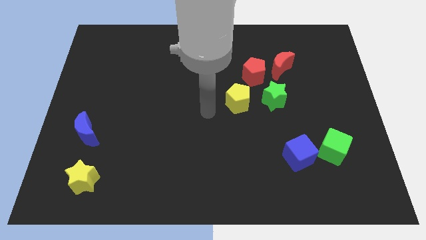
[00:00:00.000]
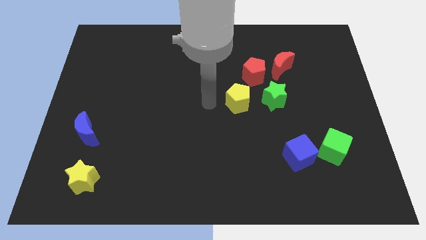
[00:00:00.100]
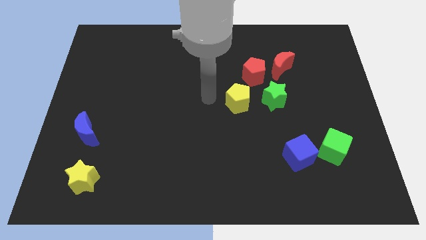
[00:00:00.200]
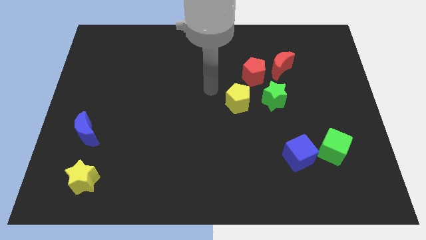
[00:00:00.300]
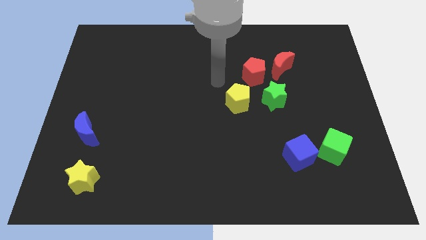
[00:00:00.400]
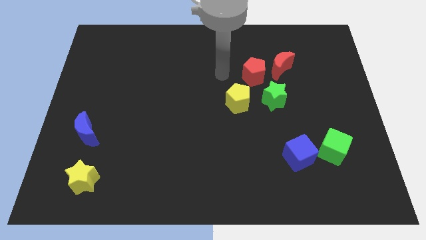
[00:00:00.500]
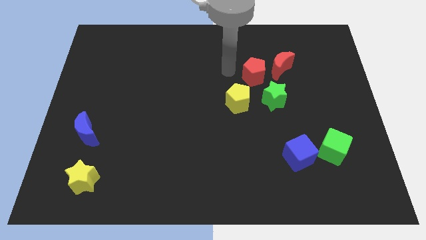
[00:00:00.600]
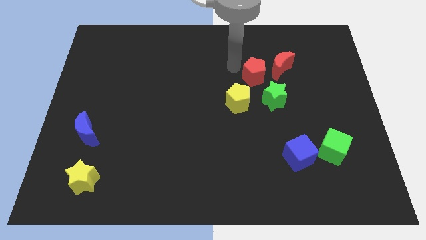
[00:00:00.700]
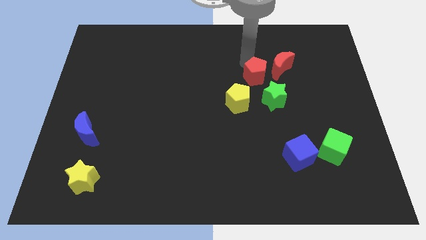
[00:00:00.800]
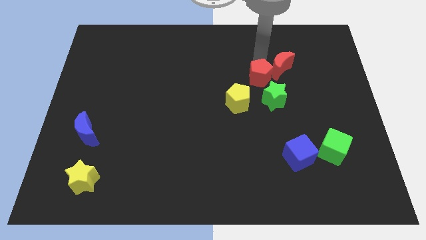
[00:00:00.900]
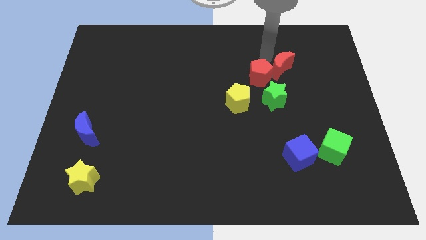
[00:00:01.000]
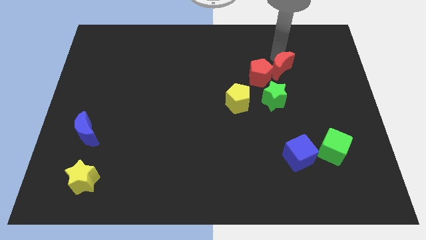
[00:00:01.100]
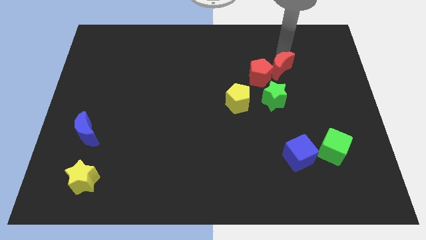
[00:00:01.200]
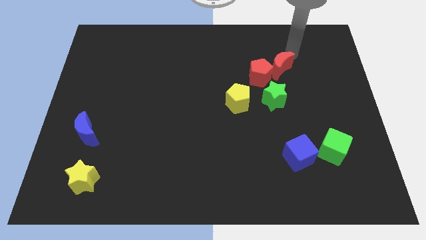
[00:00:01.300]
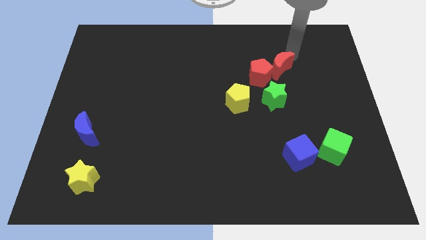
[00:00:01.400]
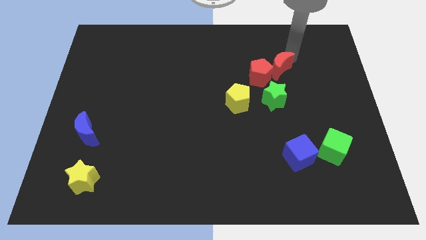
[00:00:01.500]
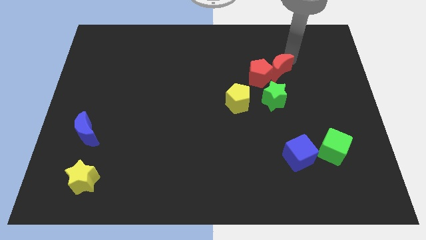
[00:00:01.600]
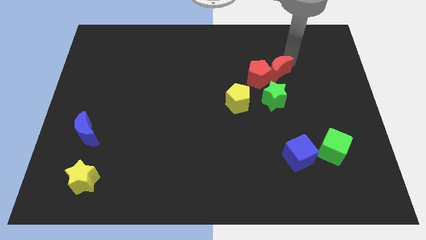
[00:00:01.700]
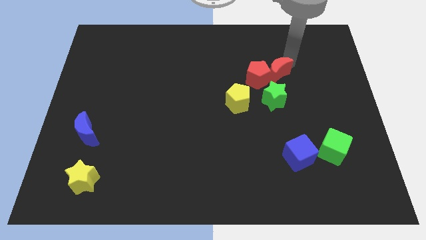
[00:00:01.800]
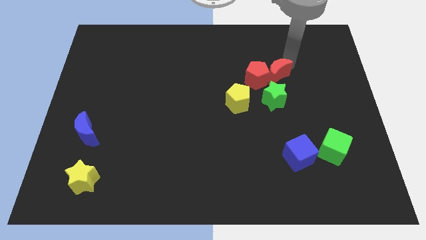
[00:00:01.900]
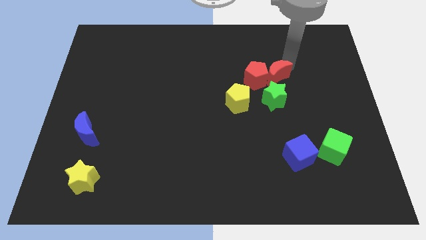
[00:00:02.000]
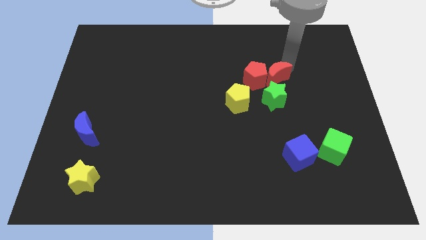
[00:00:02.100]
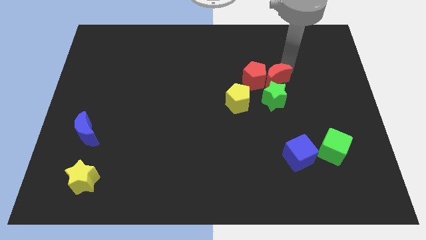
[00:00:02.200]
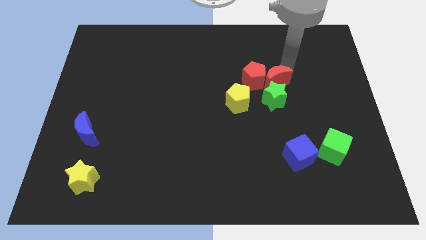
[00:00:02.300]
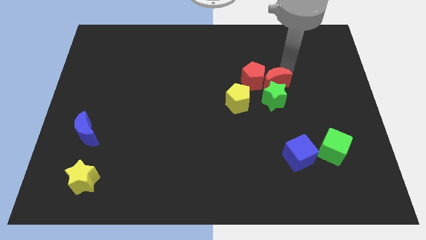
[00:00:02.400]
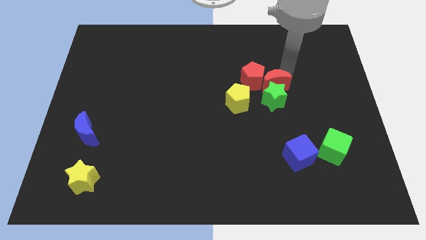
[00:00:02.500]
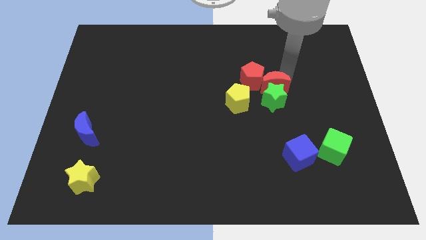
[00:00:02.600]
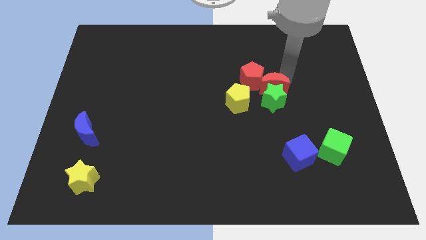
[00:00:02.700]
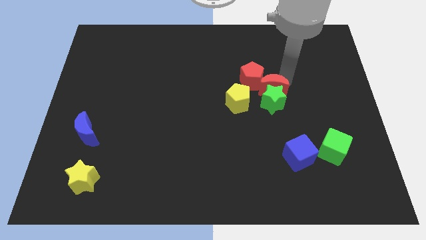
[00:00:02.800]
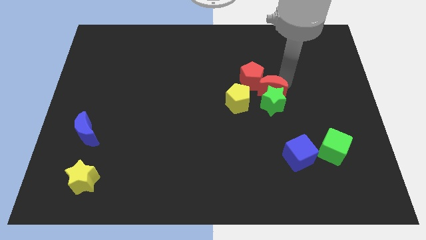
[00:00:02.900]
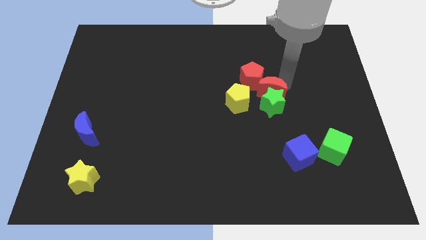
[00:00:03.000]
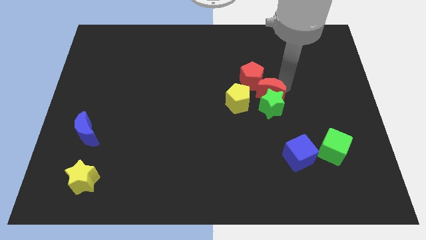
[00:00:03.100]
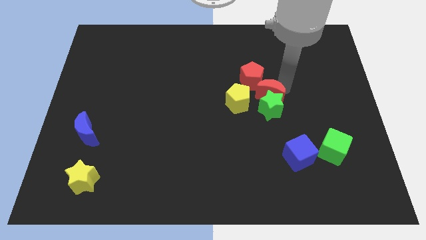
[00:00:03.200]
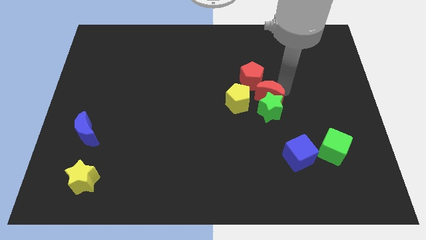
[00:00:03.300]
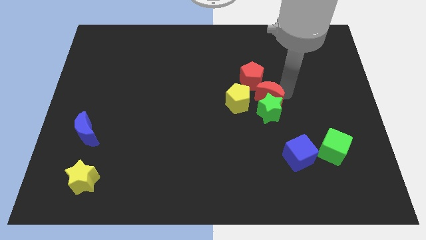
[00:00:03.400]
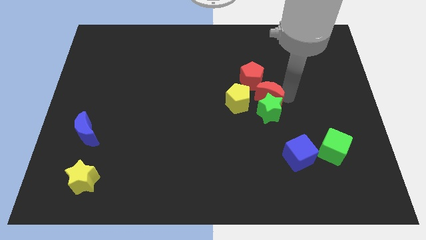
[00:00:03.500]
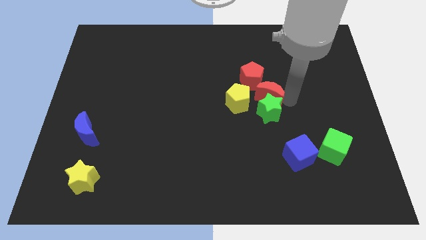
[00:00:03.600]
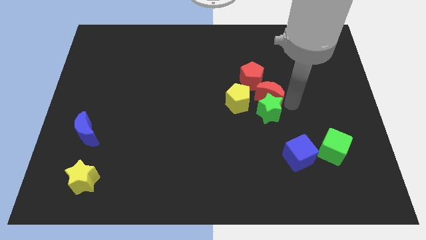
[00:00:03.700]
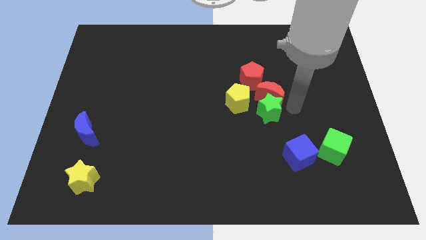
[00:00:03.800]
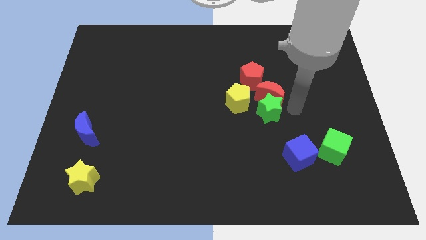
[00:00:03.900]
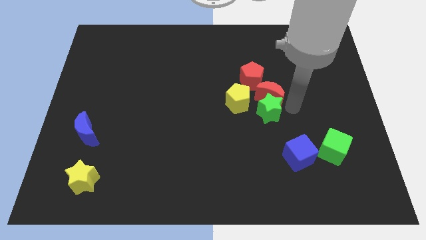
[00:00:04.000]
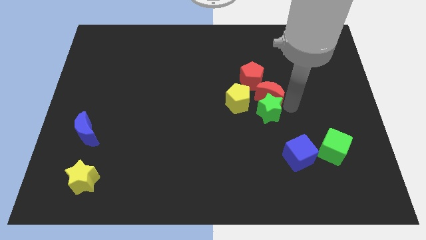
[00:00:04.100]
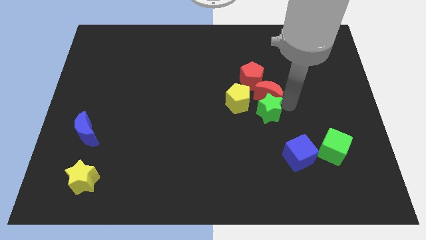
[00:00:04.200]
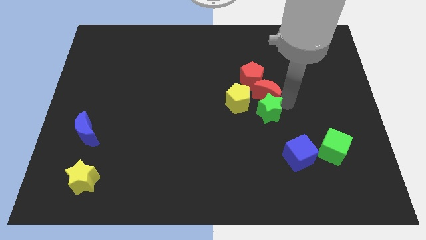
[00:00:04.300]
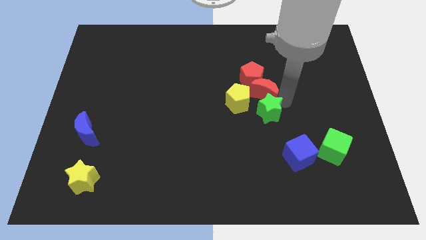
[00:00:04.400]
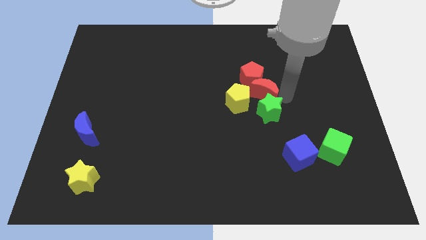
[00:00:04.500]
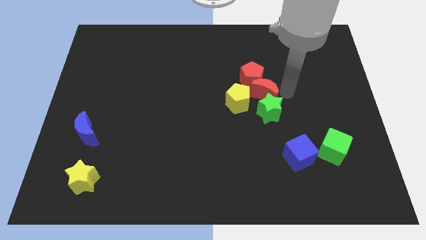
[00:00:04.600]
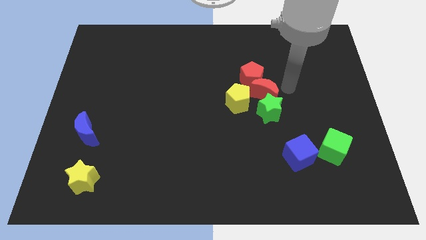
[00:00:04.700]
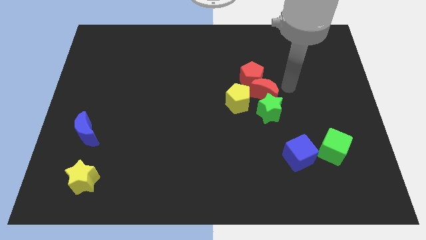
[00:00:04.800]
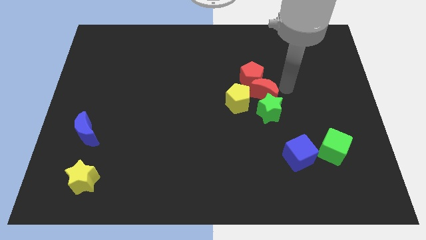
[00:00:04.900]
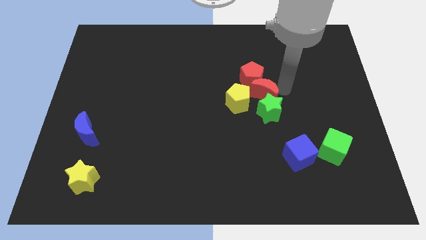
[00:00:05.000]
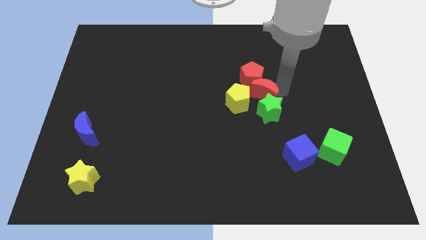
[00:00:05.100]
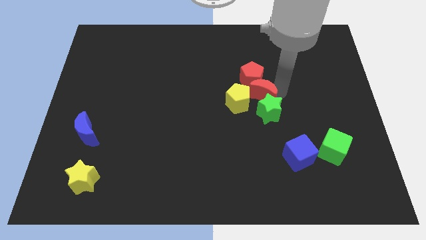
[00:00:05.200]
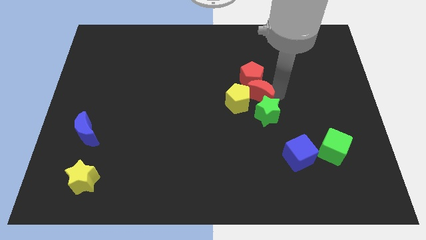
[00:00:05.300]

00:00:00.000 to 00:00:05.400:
push the red moon towards the yellow pentagon

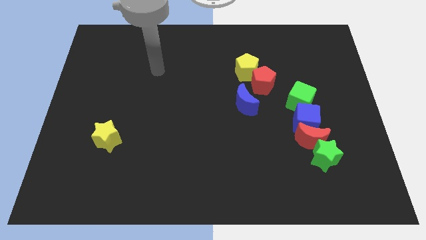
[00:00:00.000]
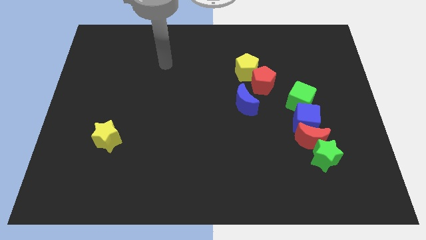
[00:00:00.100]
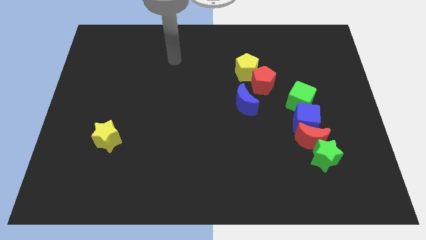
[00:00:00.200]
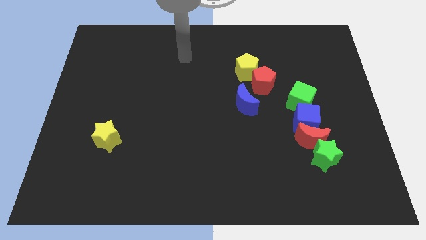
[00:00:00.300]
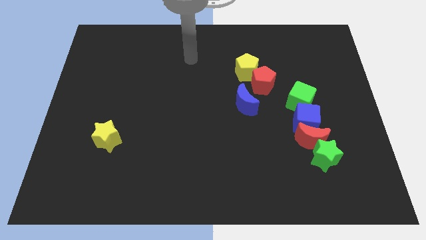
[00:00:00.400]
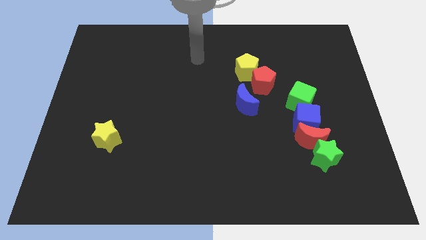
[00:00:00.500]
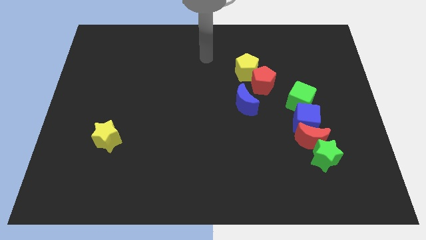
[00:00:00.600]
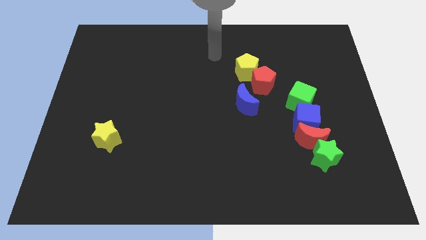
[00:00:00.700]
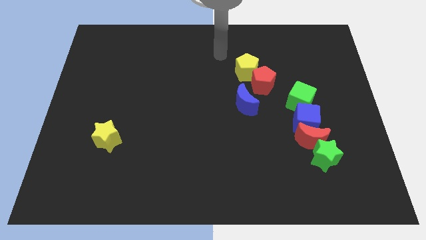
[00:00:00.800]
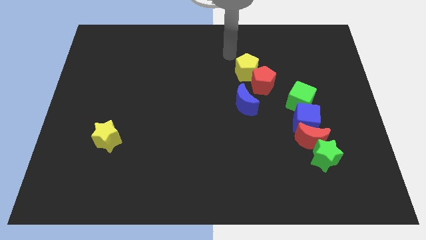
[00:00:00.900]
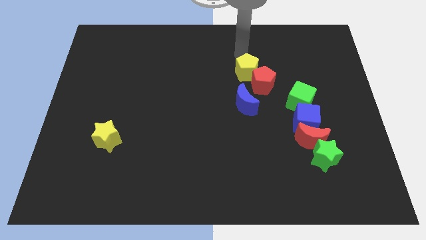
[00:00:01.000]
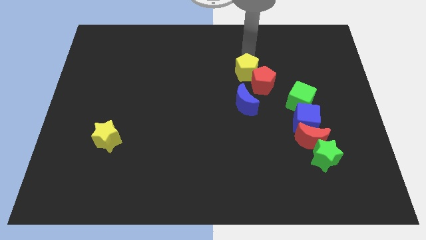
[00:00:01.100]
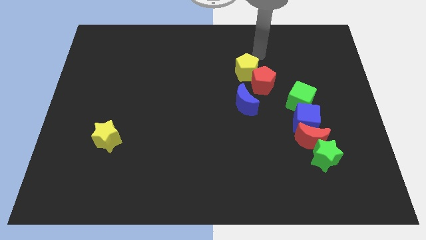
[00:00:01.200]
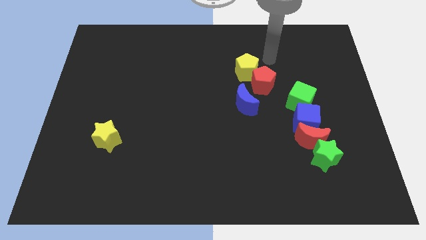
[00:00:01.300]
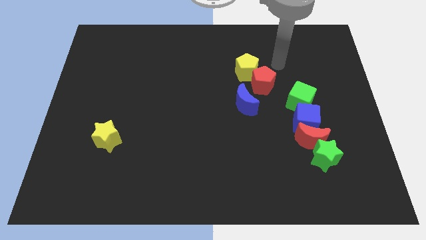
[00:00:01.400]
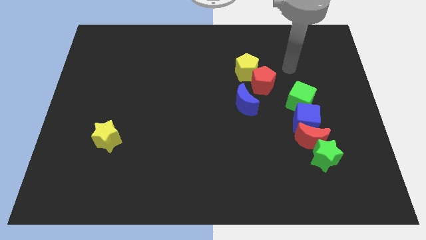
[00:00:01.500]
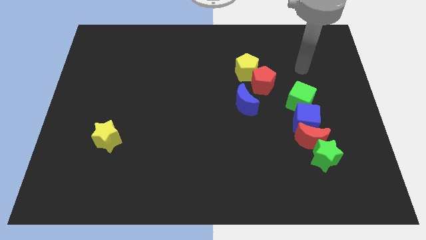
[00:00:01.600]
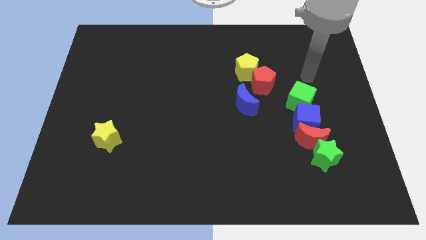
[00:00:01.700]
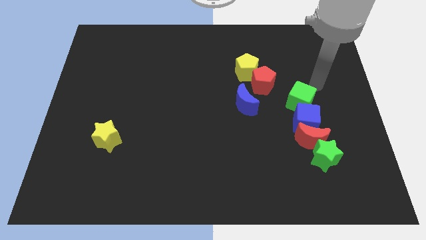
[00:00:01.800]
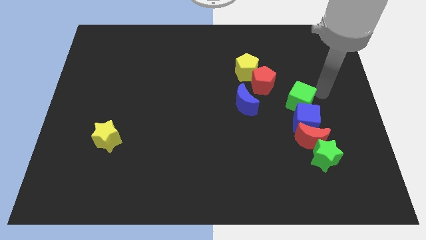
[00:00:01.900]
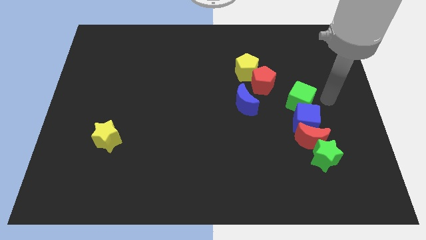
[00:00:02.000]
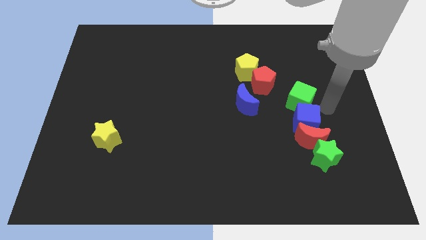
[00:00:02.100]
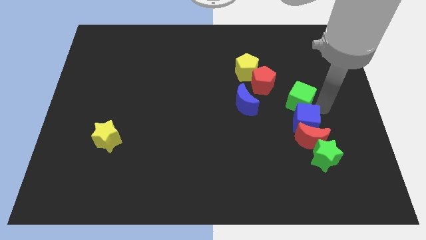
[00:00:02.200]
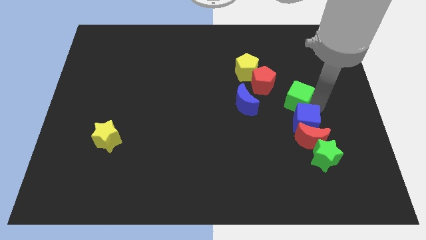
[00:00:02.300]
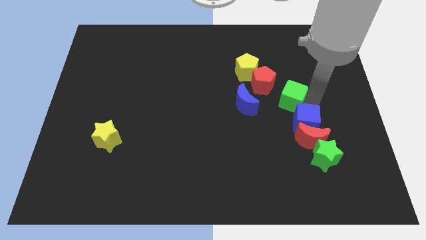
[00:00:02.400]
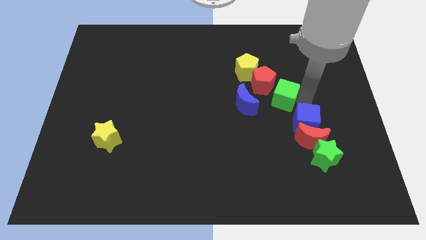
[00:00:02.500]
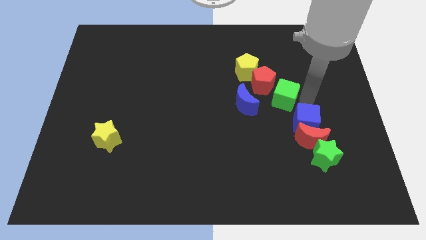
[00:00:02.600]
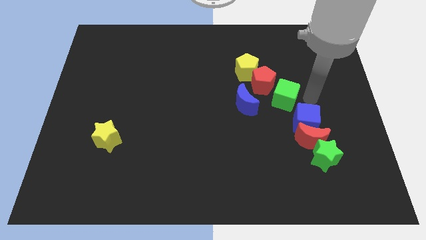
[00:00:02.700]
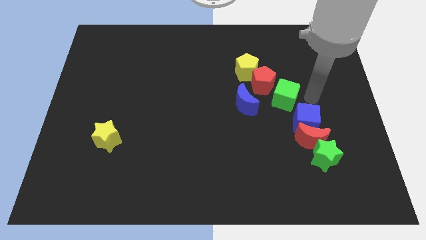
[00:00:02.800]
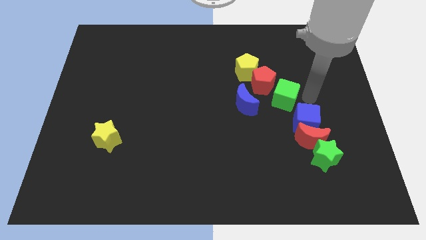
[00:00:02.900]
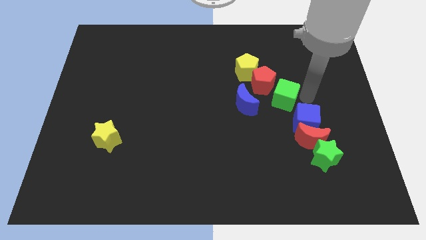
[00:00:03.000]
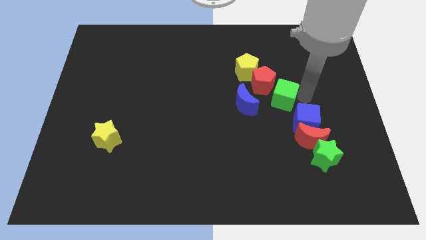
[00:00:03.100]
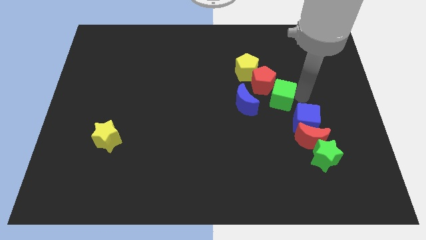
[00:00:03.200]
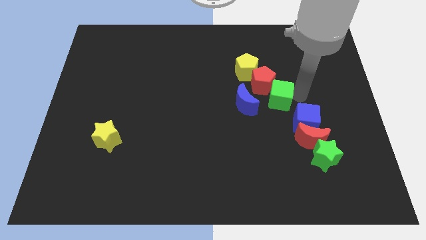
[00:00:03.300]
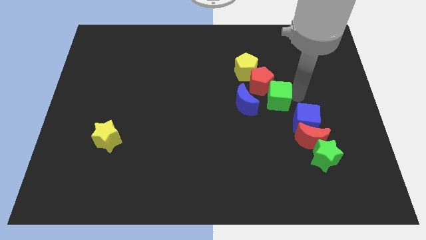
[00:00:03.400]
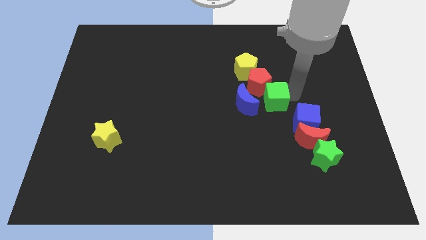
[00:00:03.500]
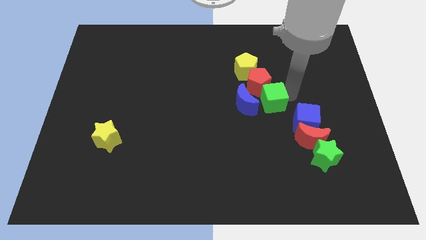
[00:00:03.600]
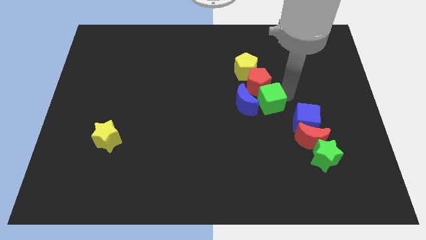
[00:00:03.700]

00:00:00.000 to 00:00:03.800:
move the green cube towards the blue moon
